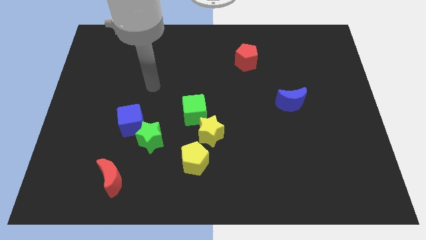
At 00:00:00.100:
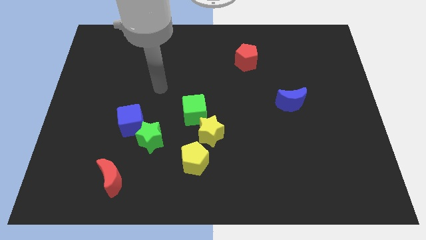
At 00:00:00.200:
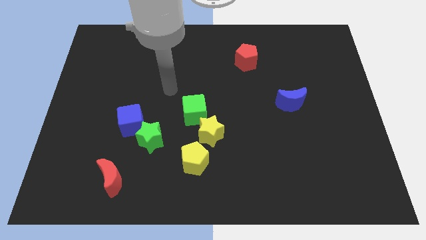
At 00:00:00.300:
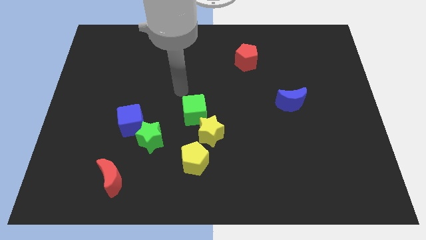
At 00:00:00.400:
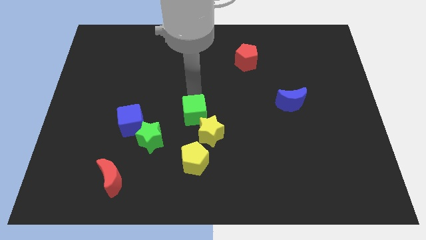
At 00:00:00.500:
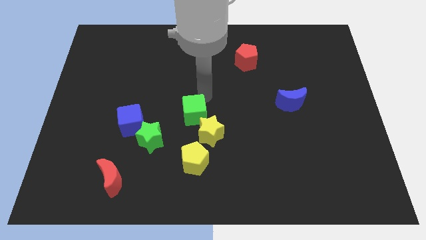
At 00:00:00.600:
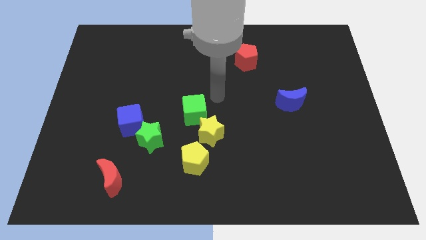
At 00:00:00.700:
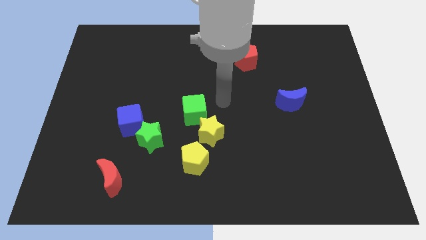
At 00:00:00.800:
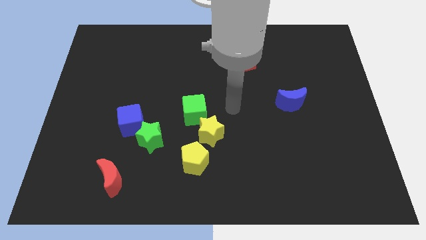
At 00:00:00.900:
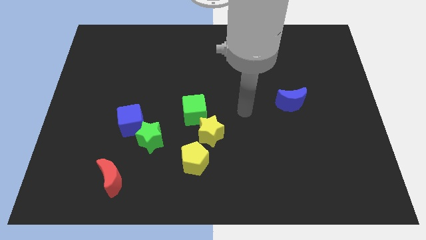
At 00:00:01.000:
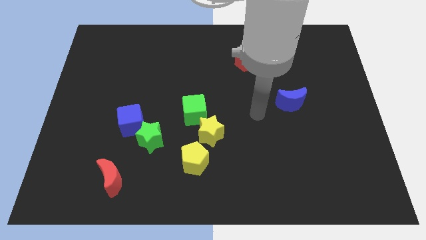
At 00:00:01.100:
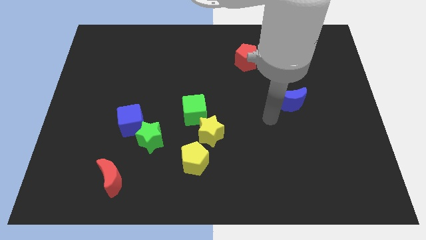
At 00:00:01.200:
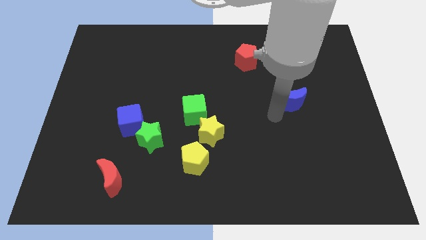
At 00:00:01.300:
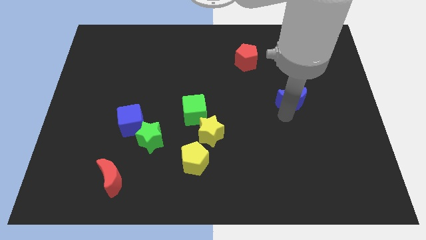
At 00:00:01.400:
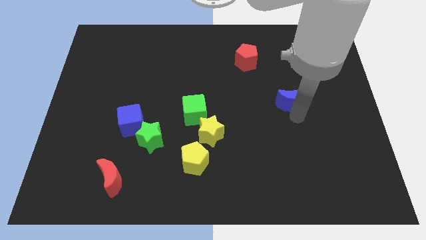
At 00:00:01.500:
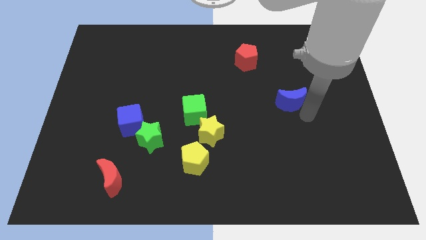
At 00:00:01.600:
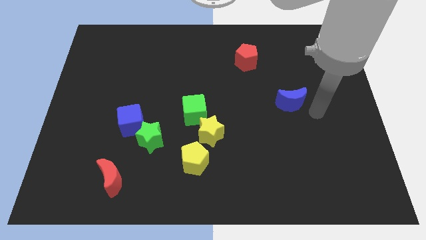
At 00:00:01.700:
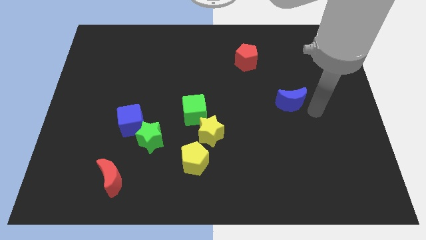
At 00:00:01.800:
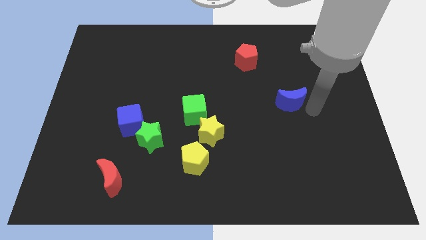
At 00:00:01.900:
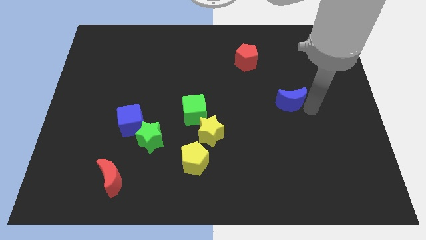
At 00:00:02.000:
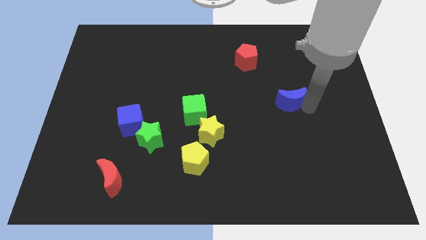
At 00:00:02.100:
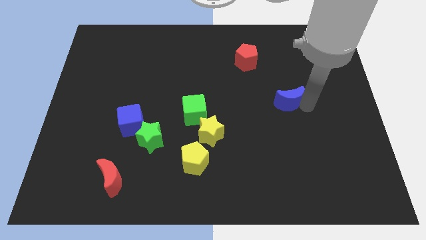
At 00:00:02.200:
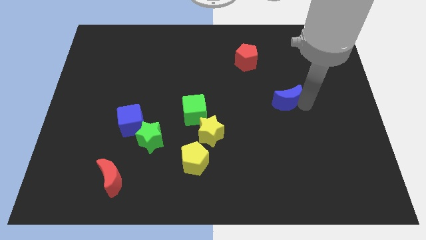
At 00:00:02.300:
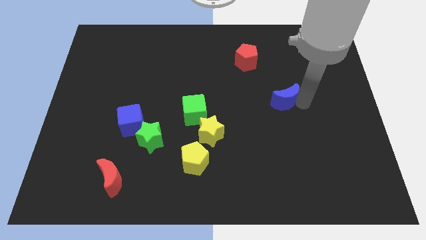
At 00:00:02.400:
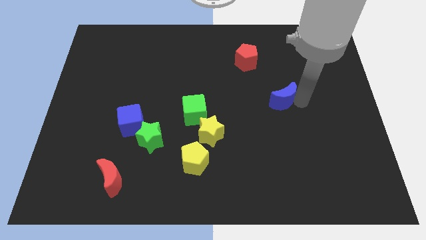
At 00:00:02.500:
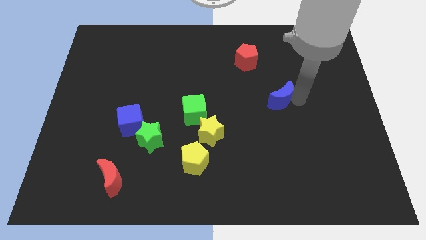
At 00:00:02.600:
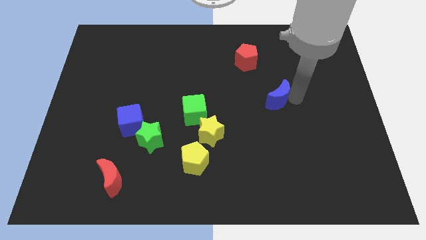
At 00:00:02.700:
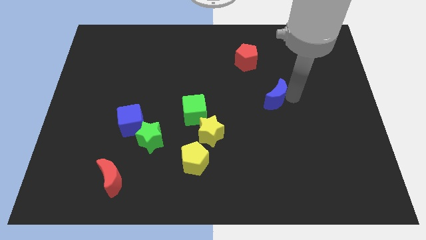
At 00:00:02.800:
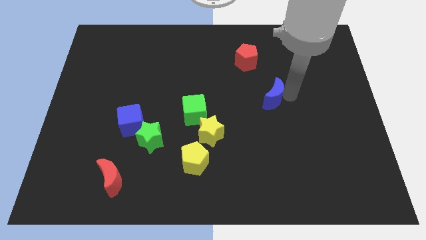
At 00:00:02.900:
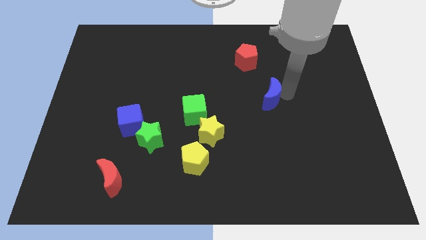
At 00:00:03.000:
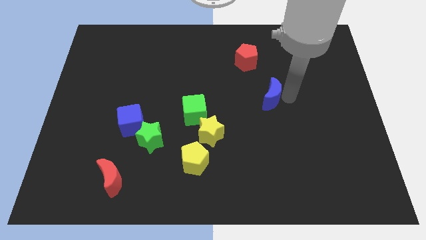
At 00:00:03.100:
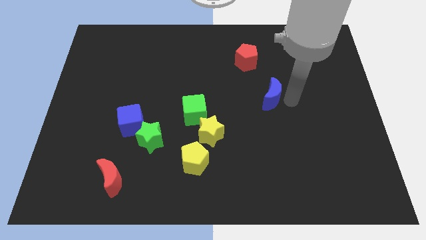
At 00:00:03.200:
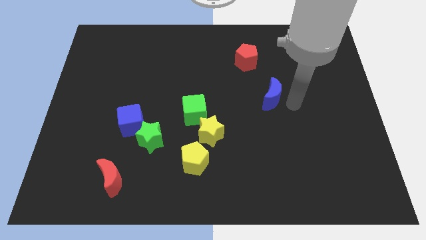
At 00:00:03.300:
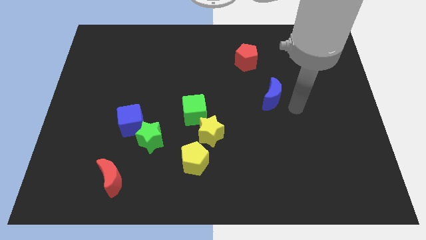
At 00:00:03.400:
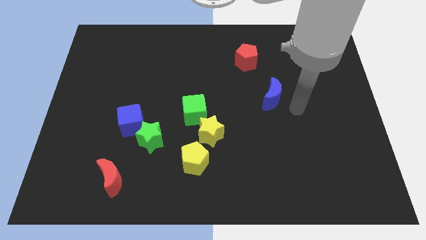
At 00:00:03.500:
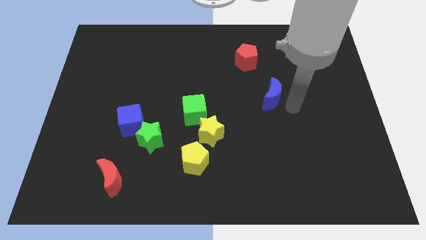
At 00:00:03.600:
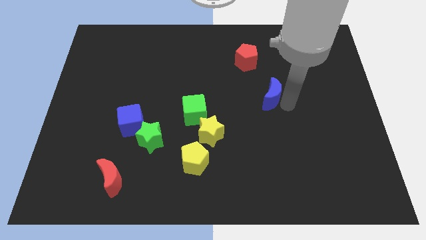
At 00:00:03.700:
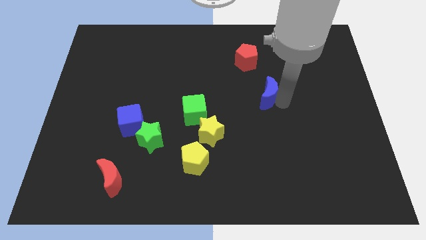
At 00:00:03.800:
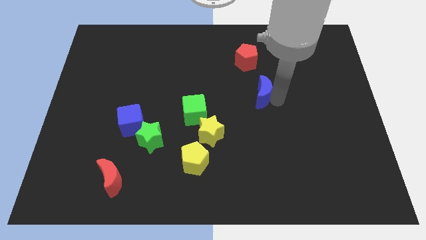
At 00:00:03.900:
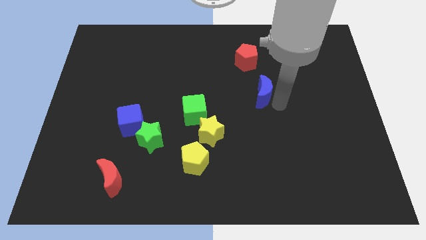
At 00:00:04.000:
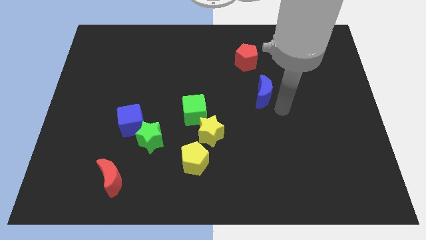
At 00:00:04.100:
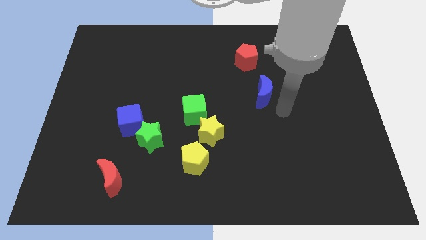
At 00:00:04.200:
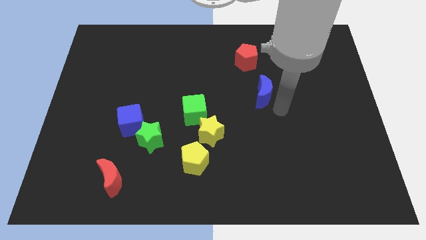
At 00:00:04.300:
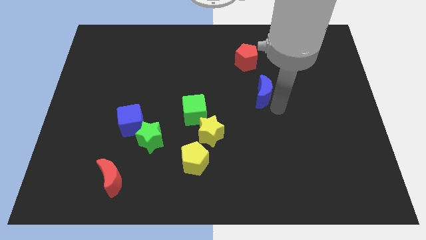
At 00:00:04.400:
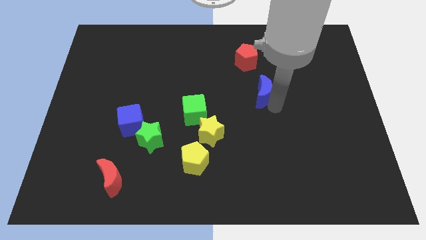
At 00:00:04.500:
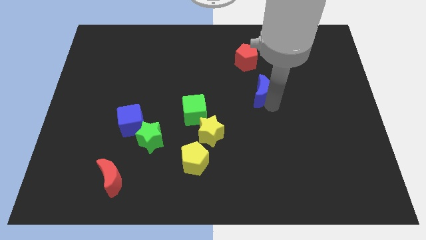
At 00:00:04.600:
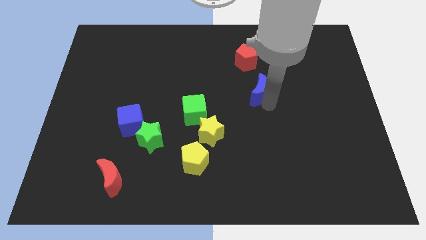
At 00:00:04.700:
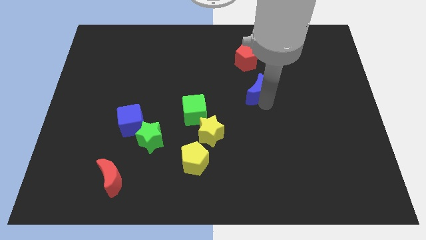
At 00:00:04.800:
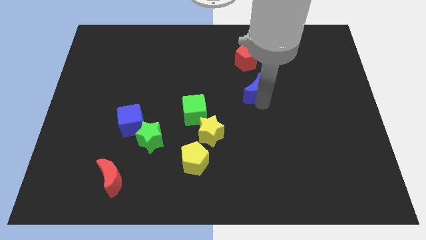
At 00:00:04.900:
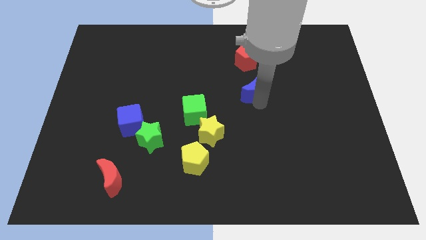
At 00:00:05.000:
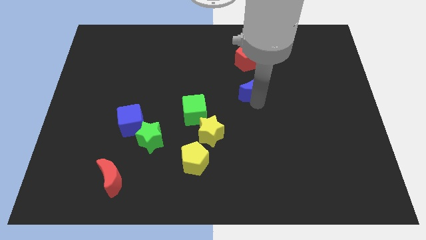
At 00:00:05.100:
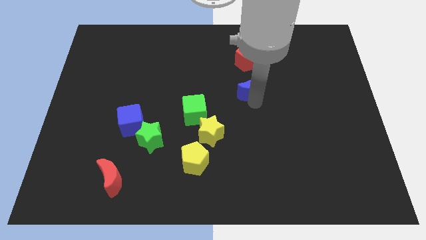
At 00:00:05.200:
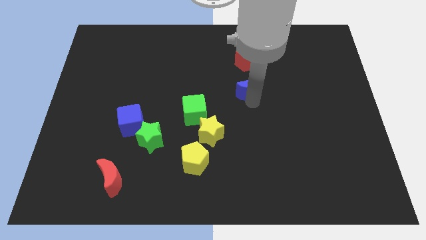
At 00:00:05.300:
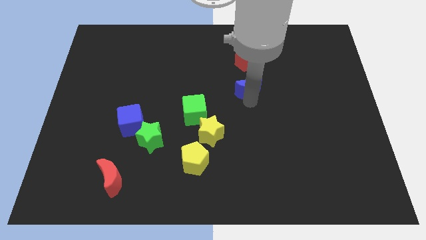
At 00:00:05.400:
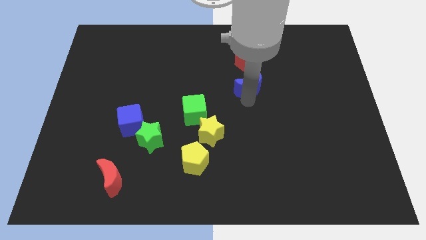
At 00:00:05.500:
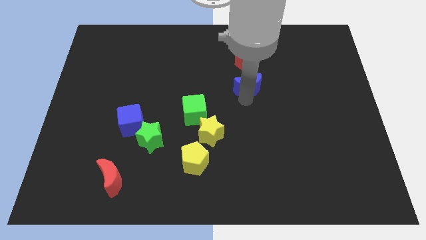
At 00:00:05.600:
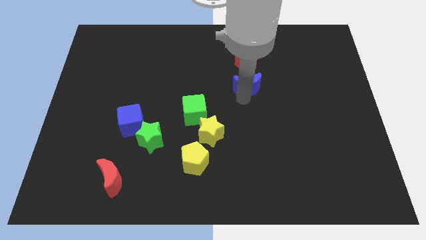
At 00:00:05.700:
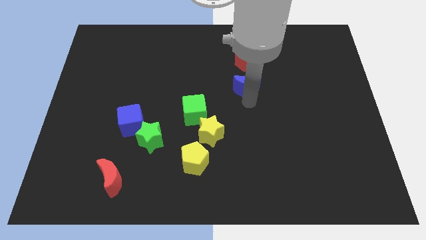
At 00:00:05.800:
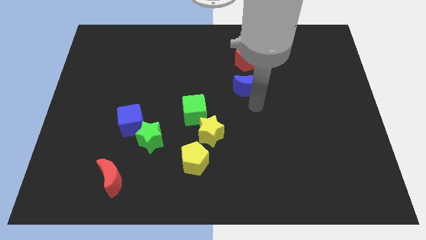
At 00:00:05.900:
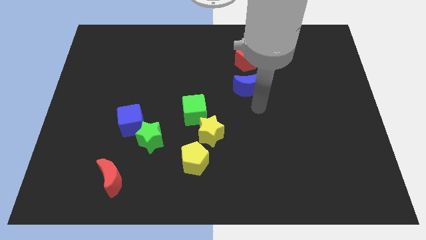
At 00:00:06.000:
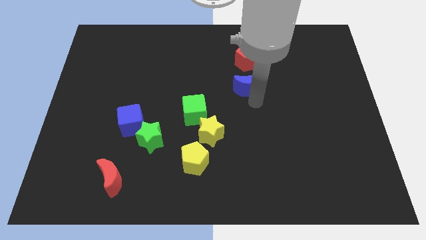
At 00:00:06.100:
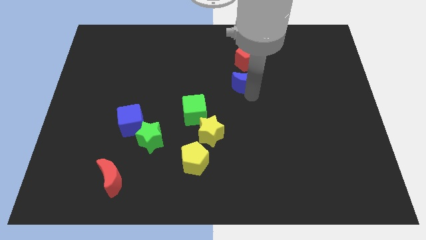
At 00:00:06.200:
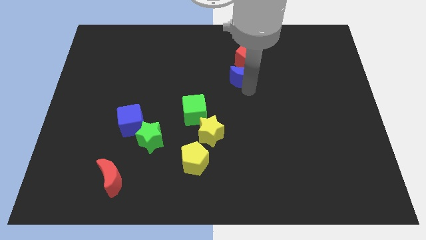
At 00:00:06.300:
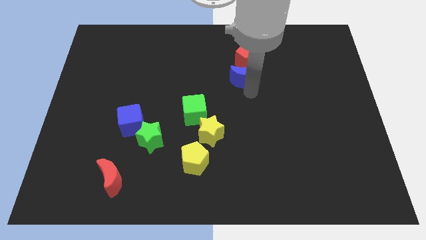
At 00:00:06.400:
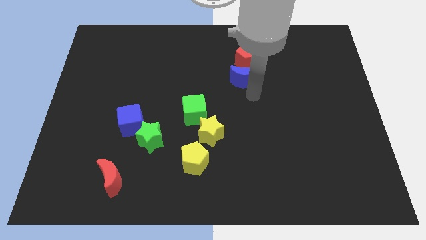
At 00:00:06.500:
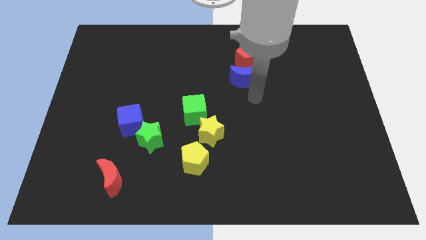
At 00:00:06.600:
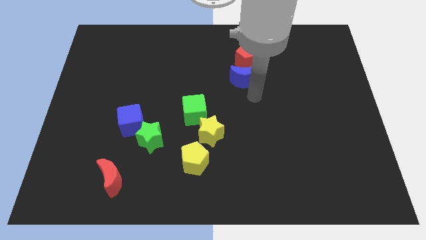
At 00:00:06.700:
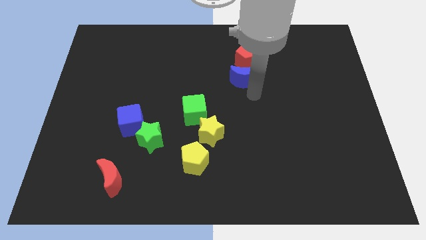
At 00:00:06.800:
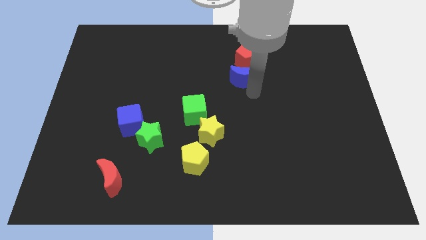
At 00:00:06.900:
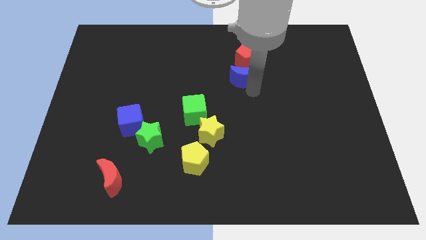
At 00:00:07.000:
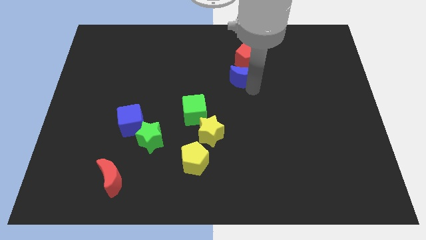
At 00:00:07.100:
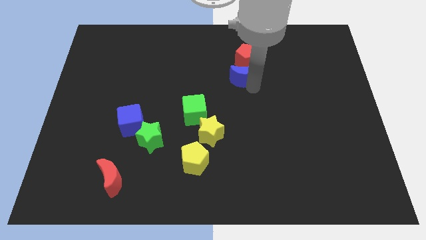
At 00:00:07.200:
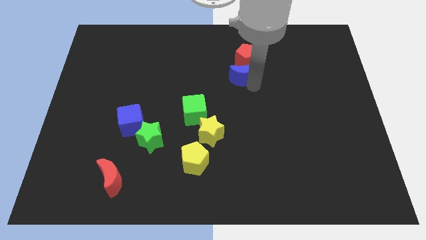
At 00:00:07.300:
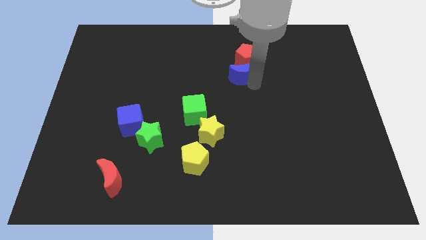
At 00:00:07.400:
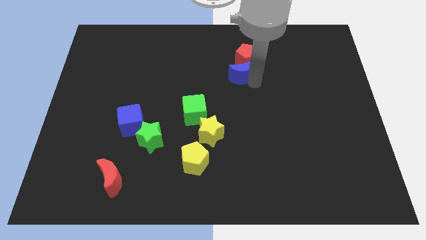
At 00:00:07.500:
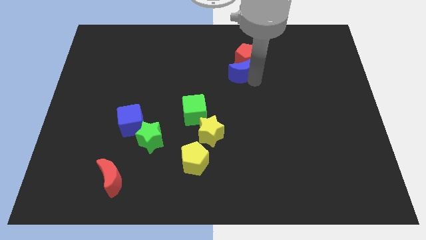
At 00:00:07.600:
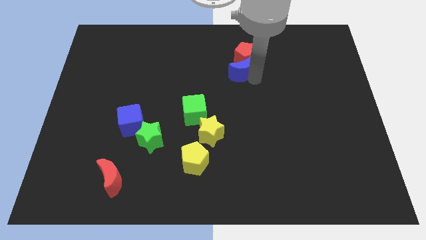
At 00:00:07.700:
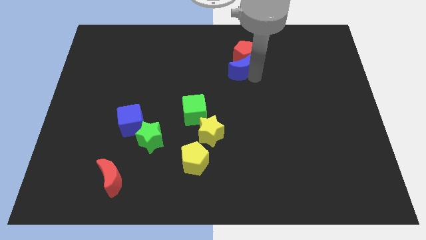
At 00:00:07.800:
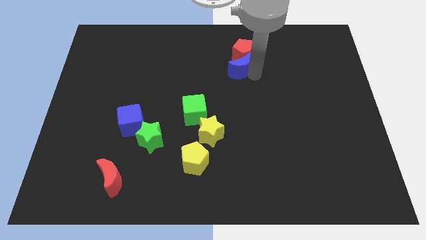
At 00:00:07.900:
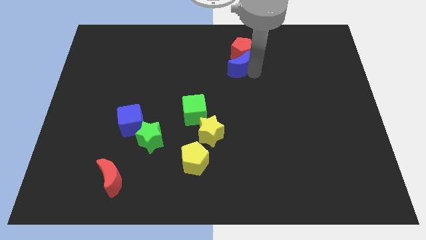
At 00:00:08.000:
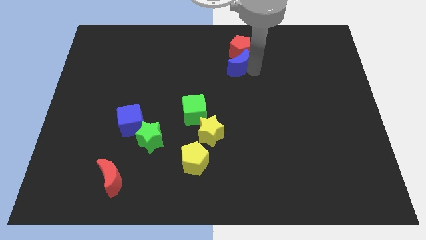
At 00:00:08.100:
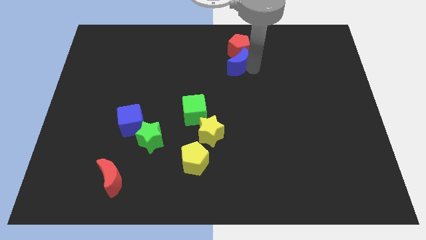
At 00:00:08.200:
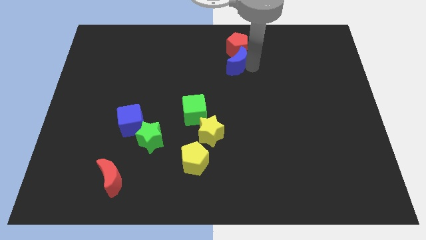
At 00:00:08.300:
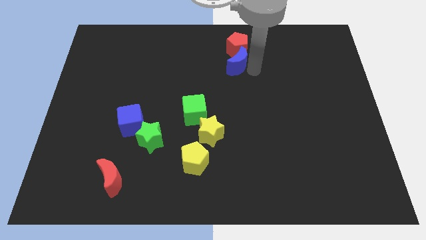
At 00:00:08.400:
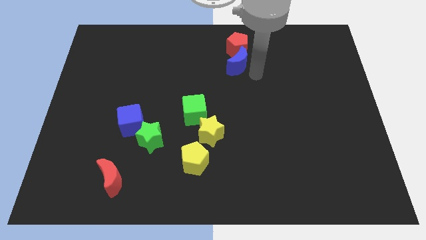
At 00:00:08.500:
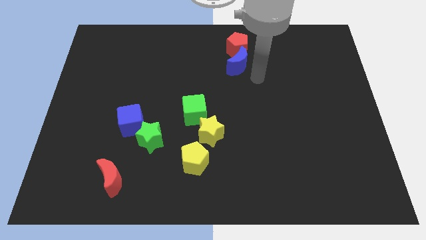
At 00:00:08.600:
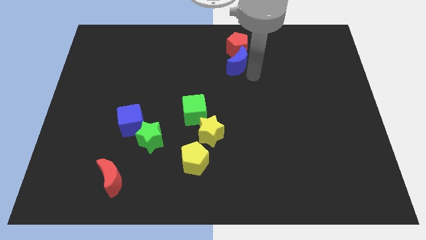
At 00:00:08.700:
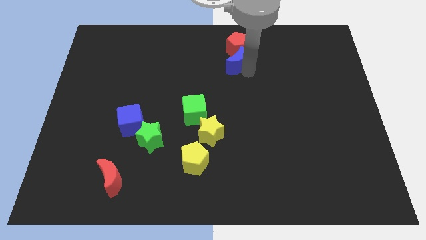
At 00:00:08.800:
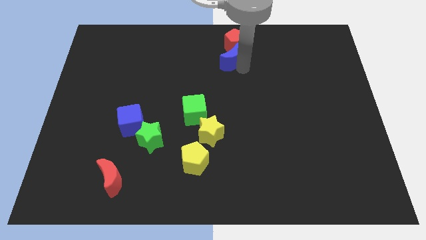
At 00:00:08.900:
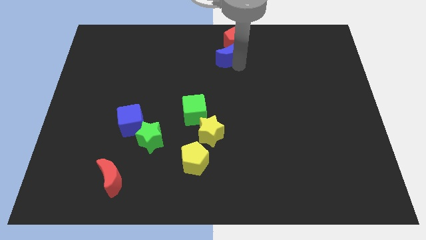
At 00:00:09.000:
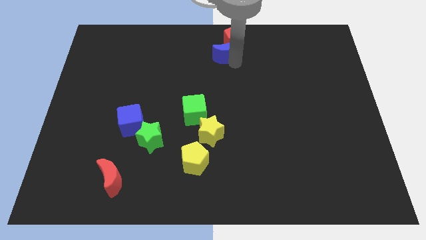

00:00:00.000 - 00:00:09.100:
push the blue moon to the towards your base
